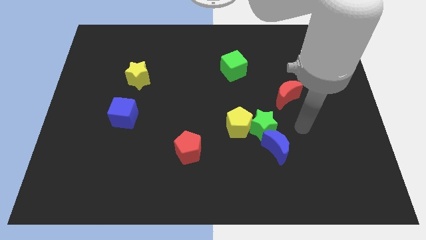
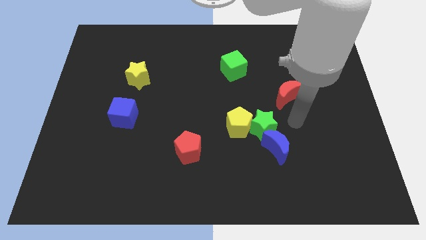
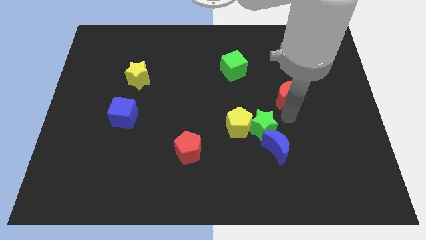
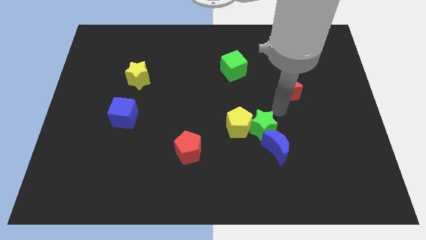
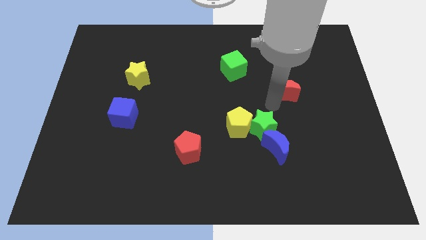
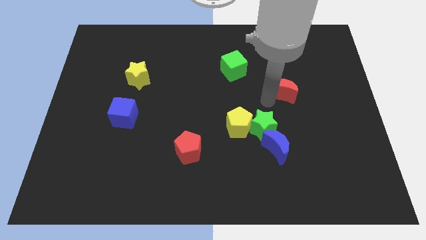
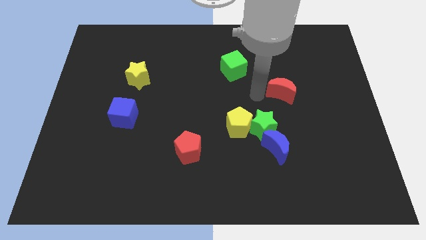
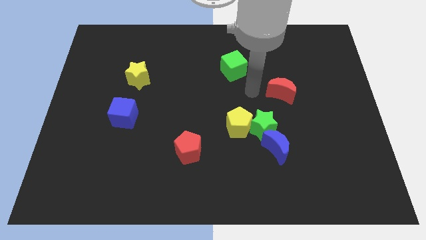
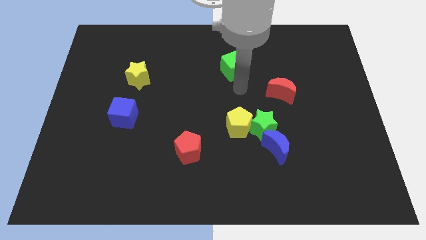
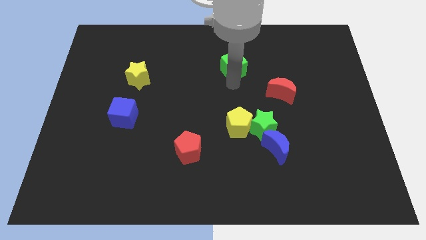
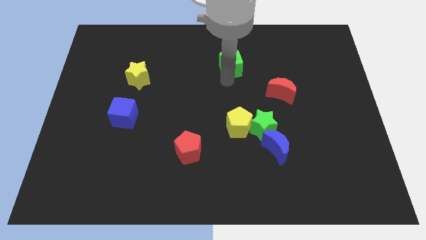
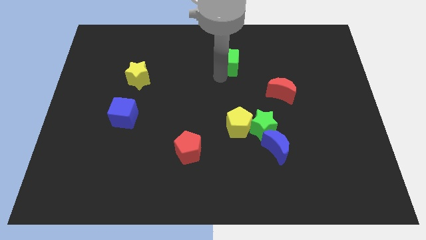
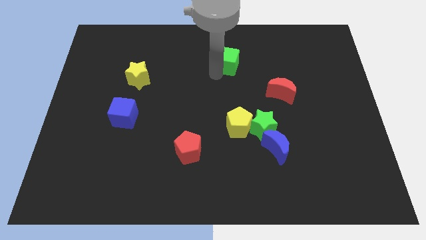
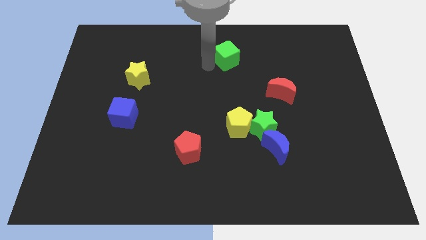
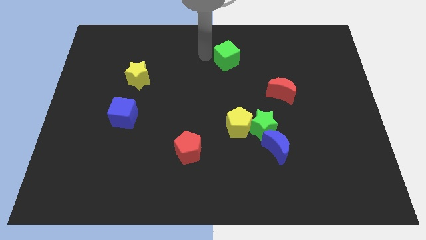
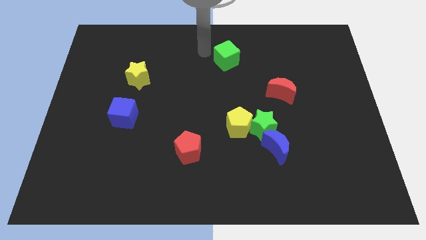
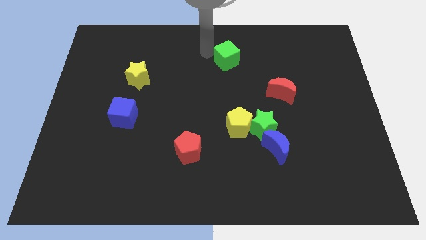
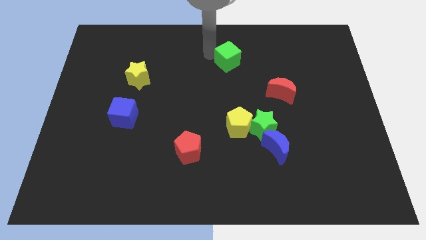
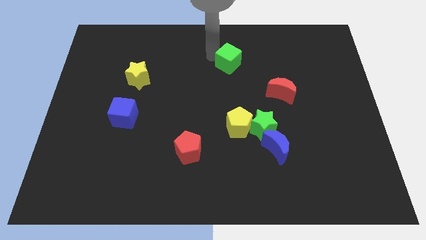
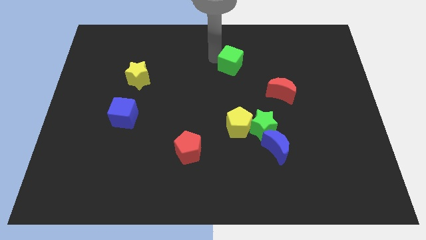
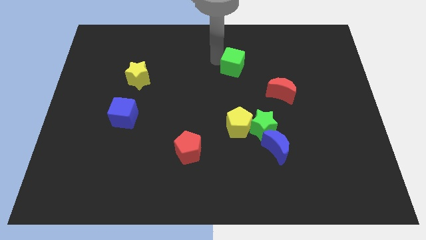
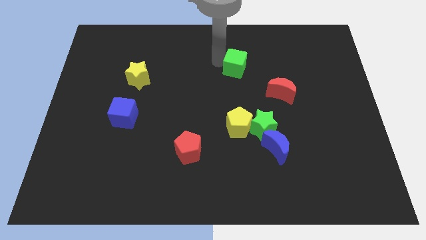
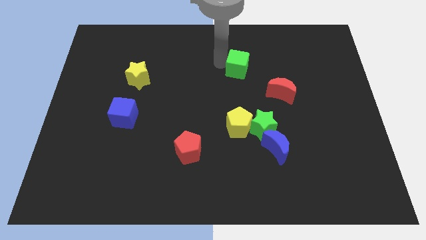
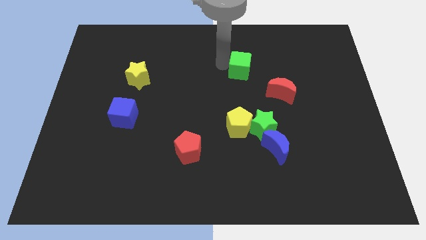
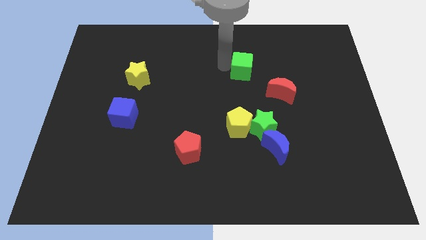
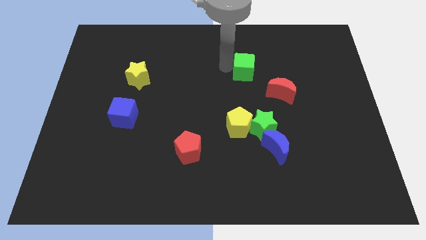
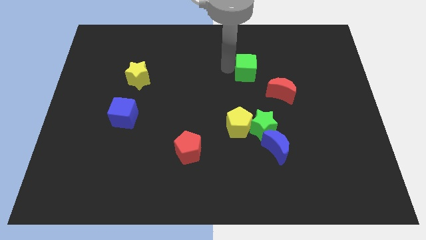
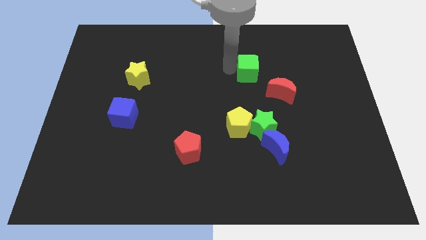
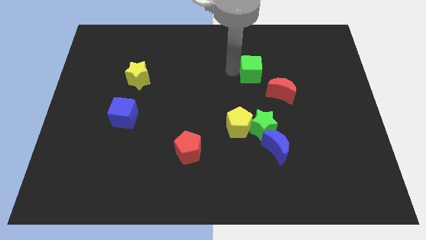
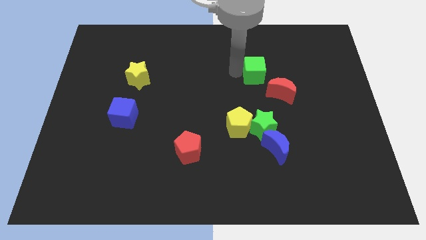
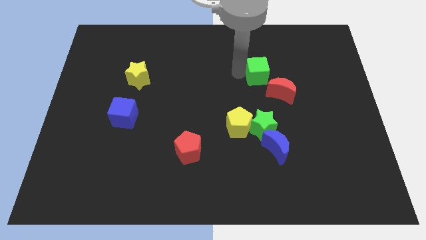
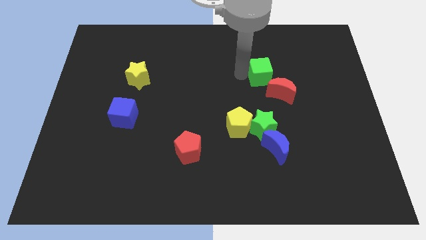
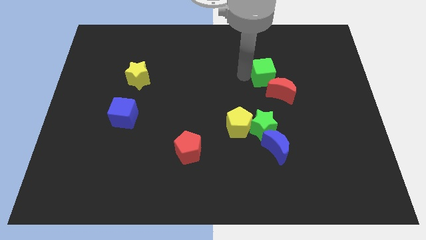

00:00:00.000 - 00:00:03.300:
move the green cube right a little

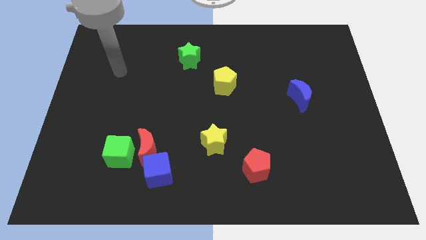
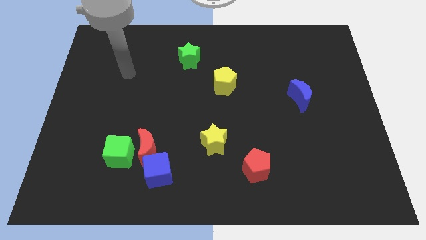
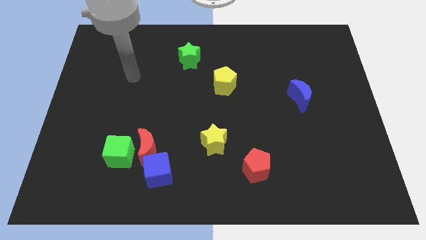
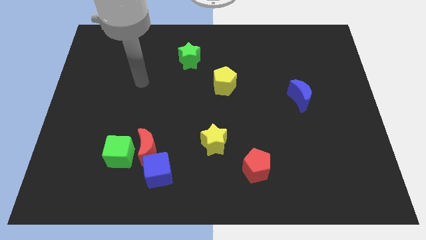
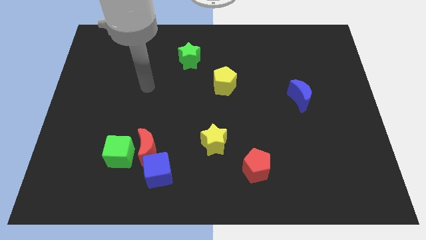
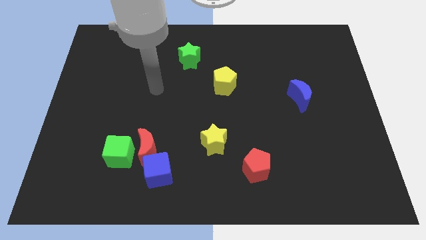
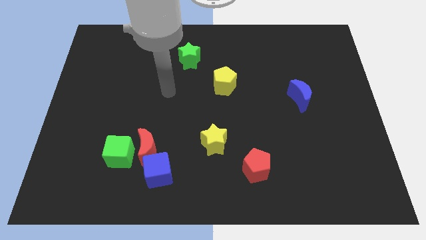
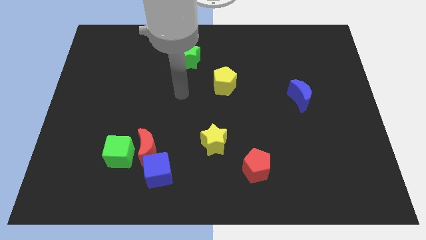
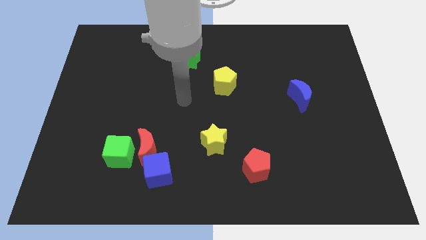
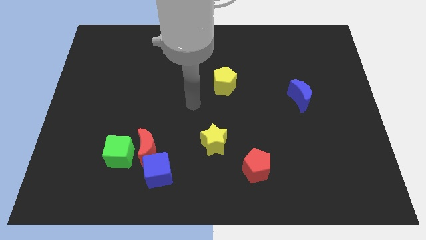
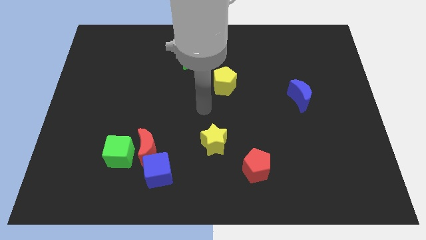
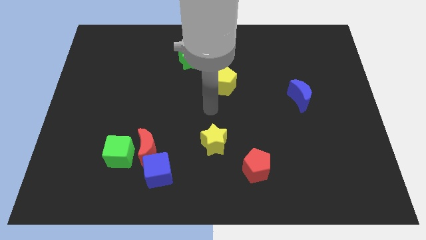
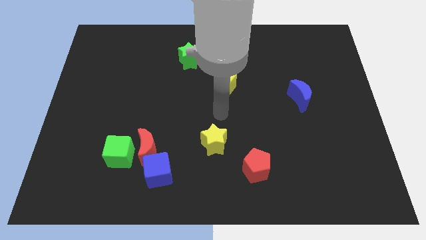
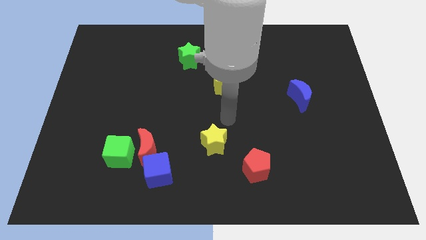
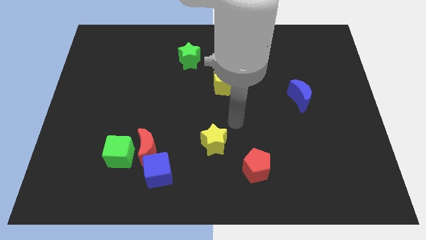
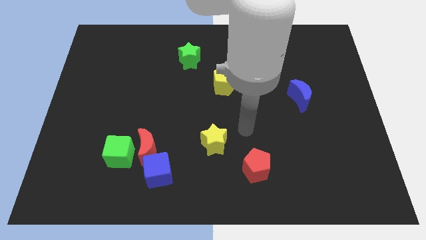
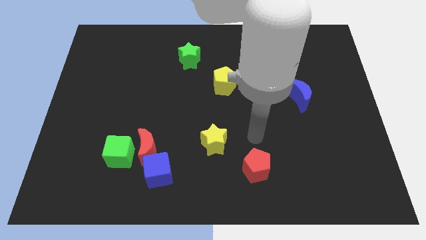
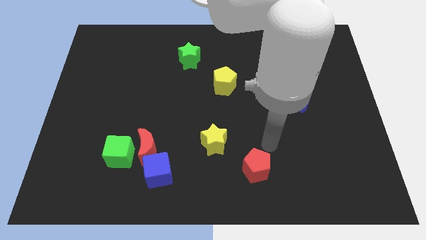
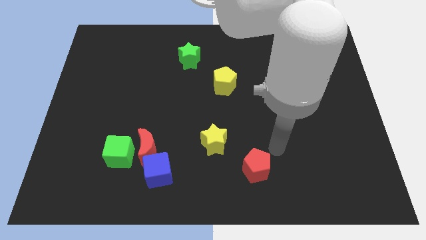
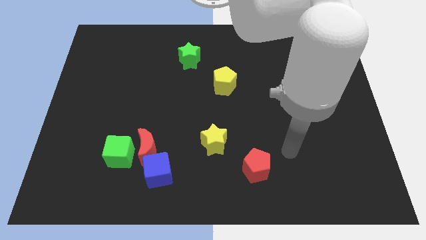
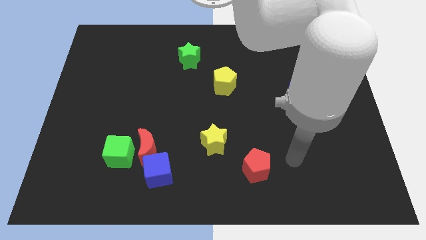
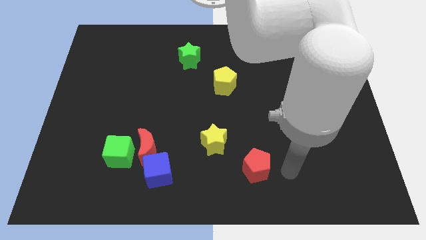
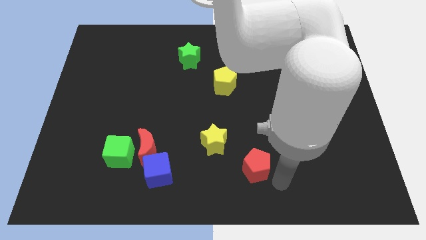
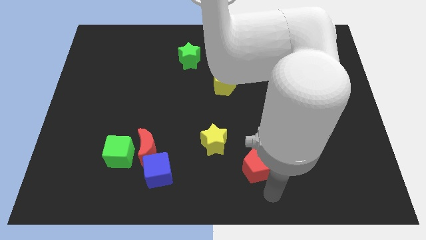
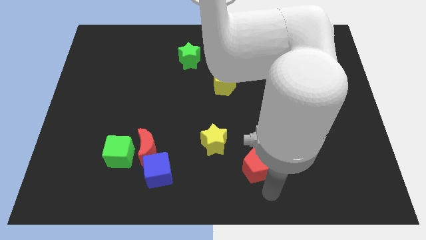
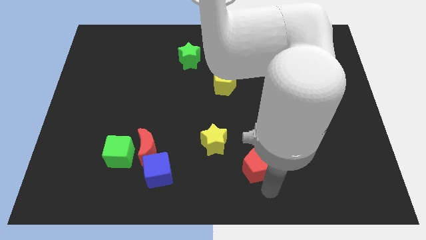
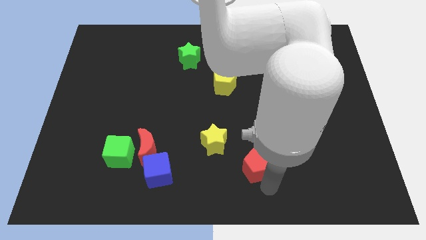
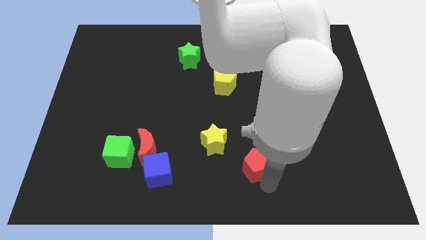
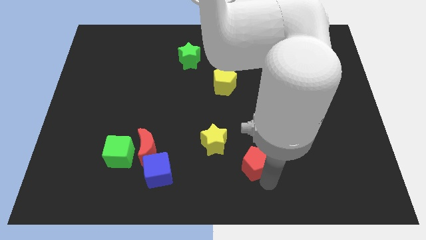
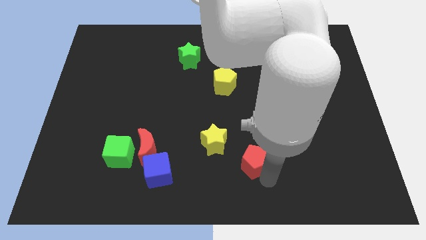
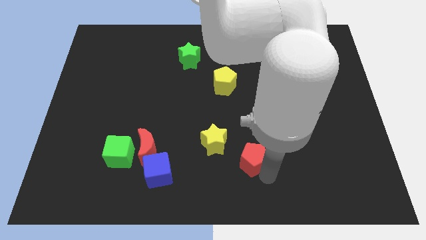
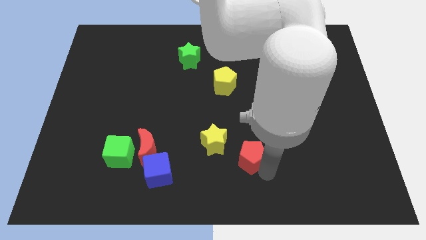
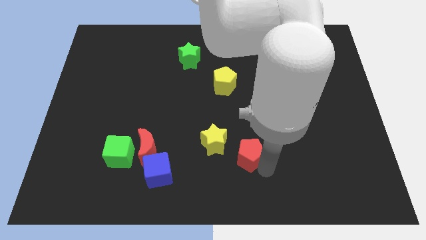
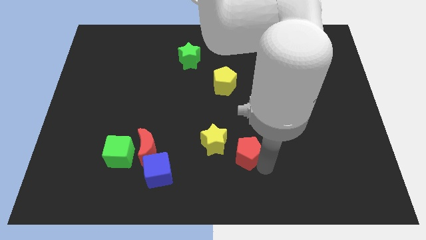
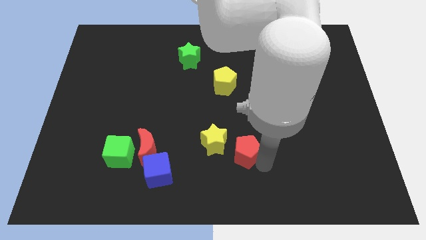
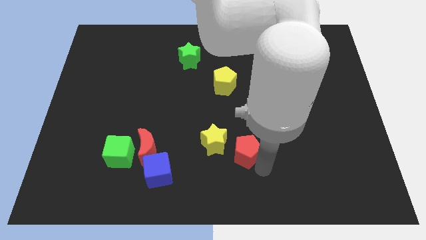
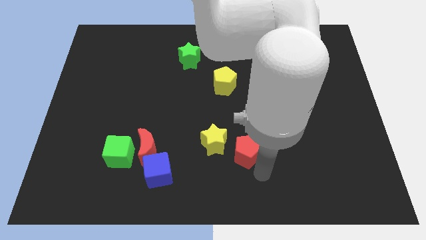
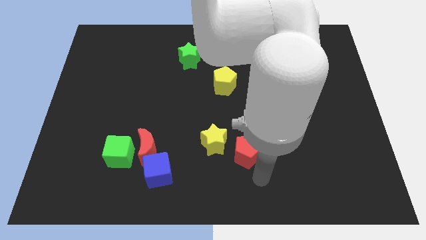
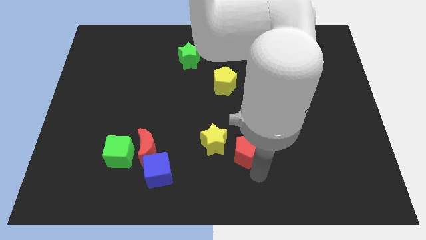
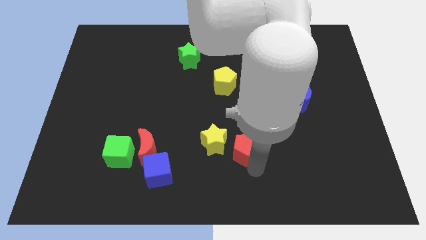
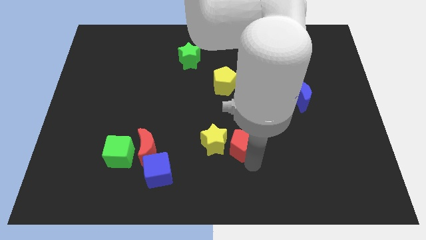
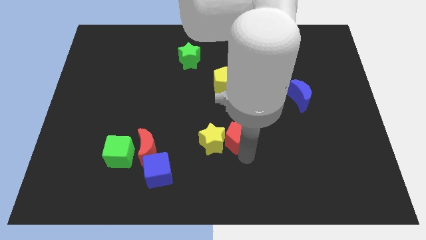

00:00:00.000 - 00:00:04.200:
move the red pentagon a bit up

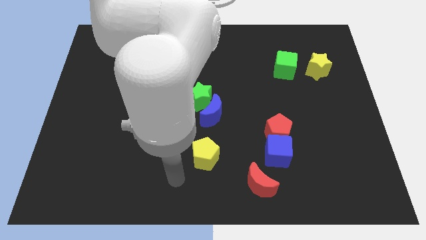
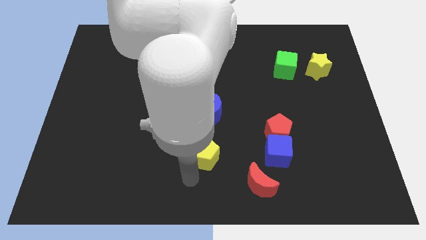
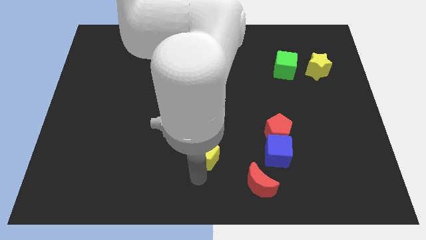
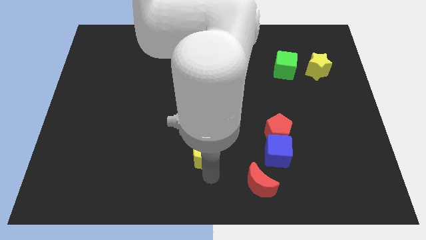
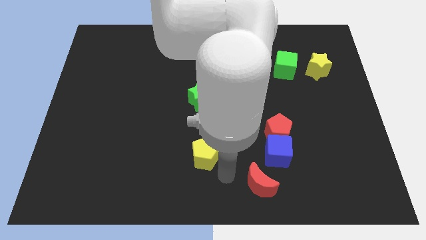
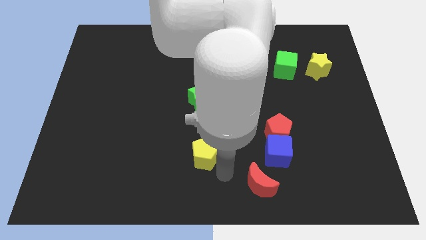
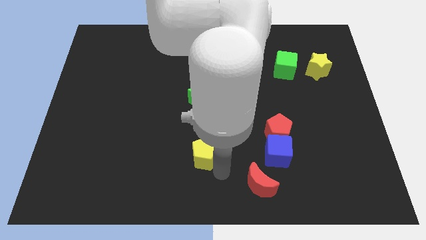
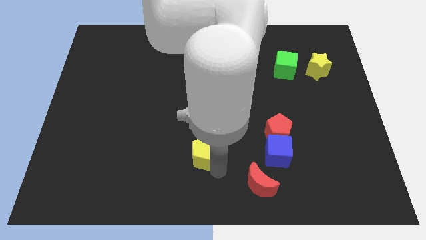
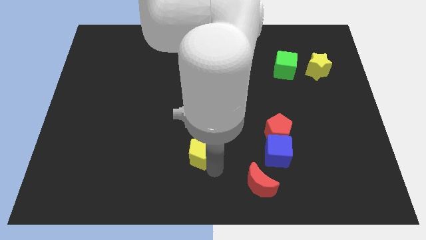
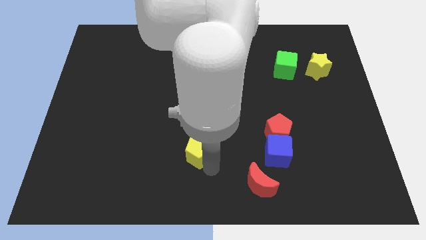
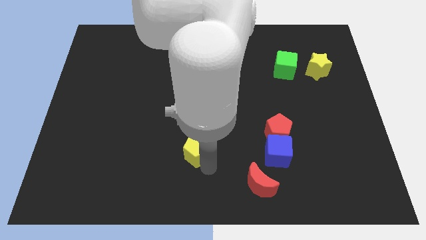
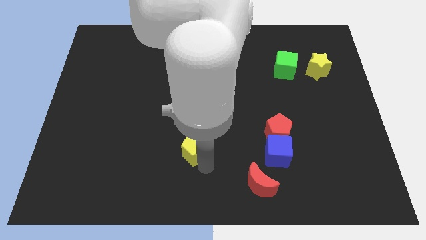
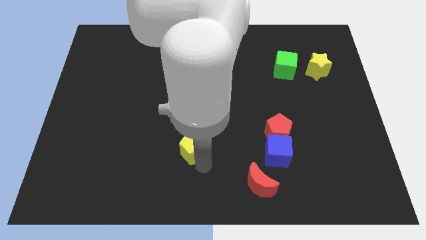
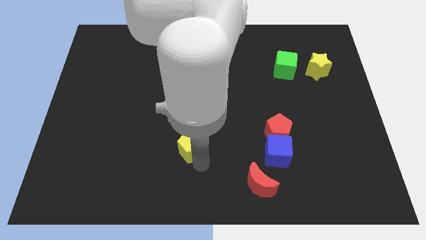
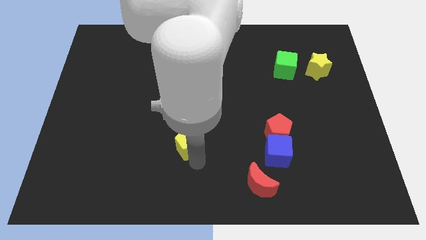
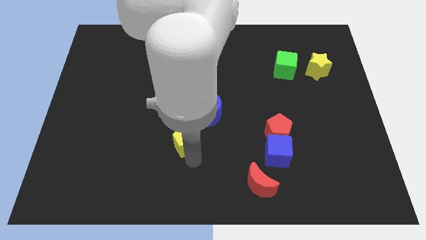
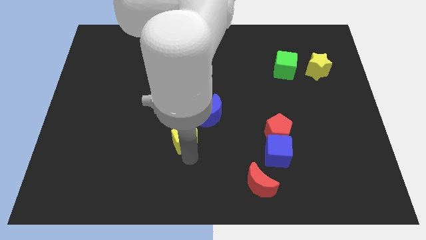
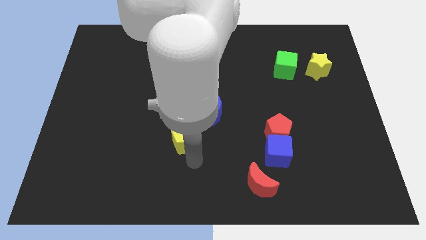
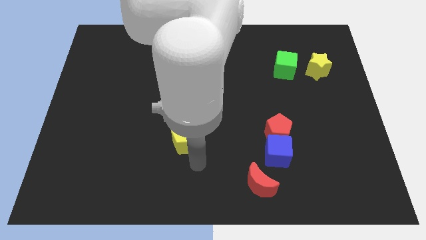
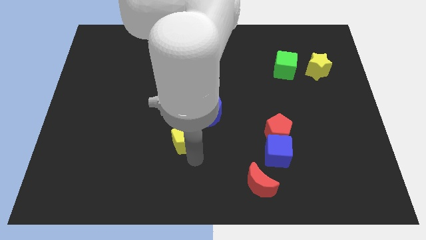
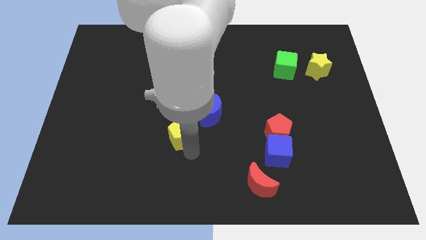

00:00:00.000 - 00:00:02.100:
push the yellow pentagon a little upwards and left diagonally
